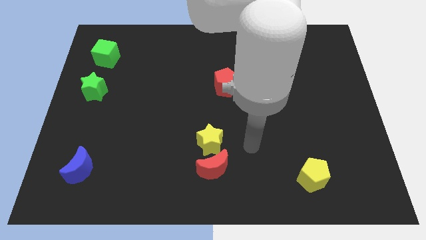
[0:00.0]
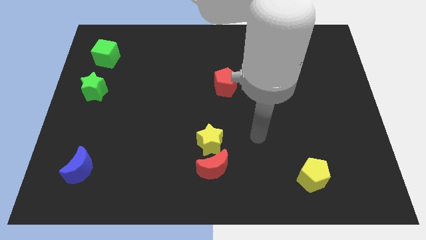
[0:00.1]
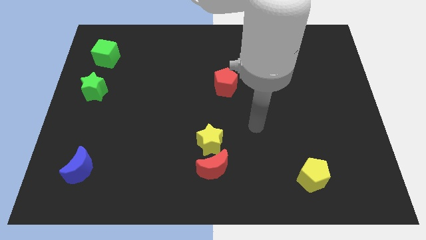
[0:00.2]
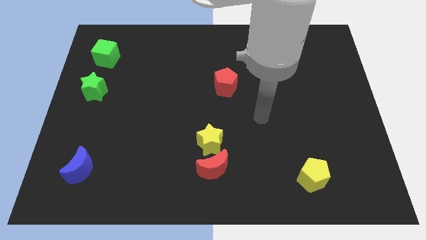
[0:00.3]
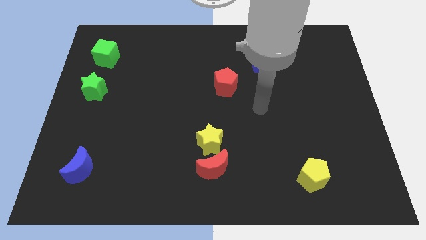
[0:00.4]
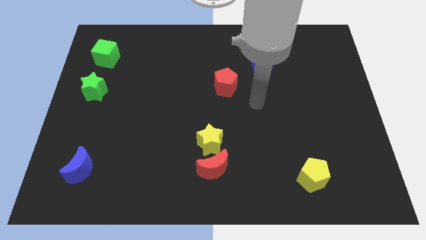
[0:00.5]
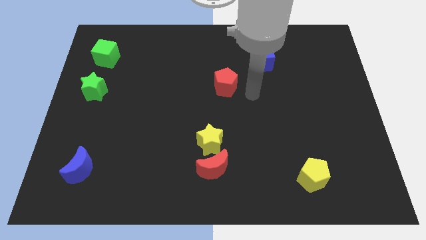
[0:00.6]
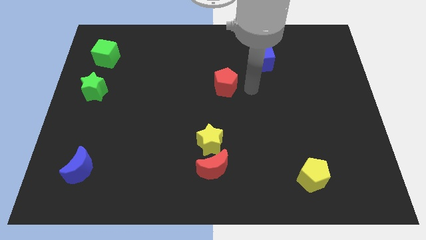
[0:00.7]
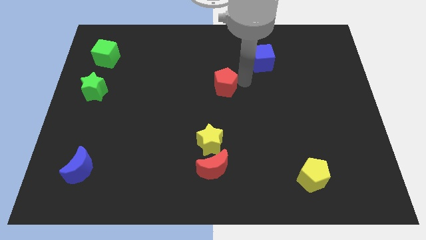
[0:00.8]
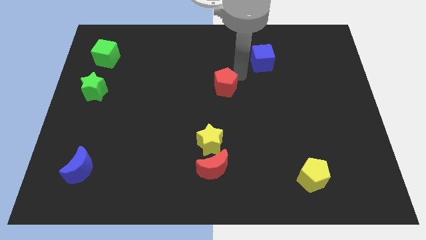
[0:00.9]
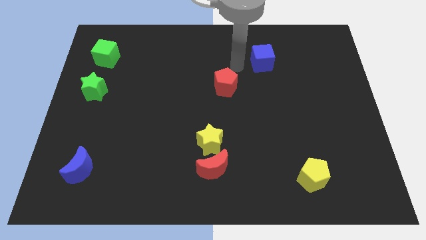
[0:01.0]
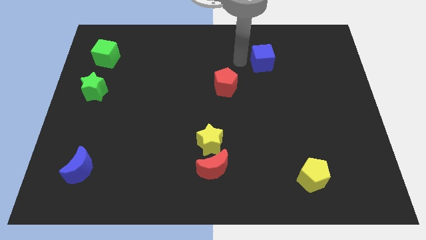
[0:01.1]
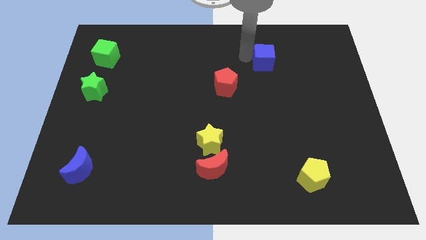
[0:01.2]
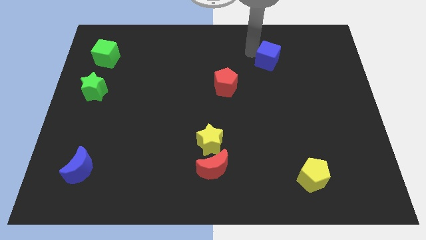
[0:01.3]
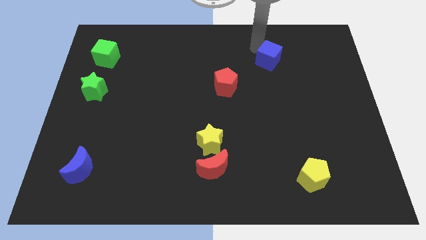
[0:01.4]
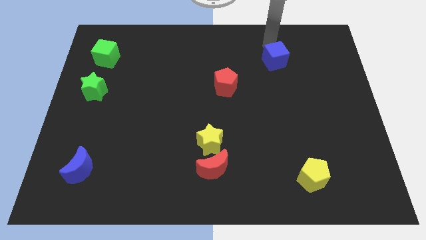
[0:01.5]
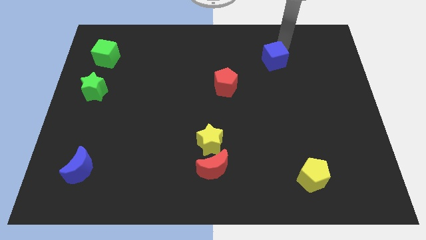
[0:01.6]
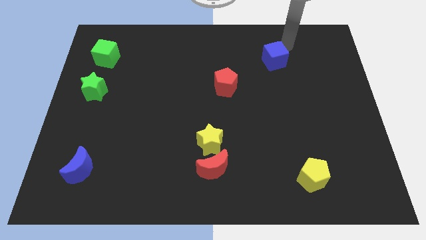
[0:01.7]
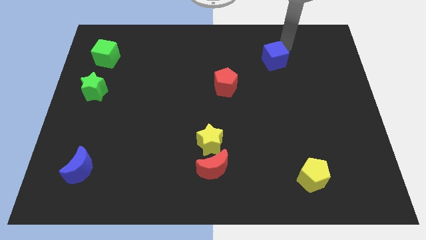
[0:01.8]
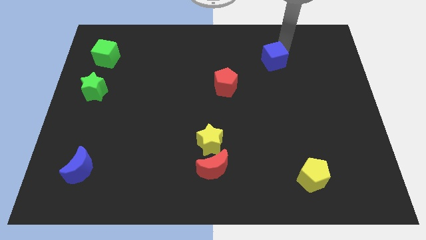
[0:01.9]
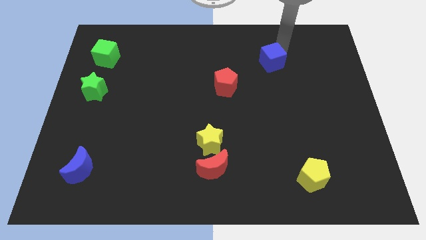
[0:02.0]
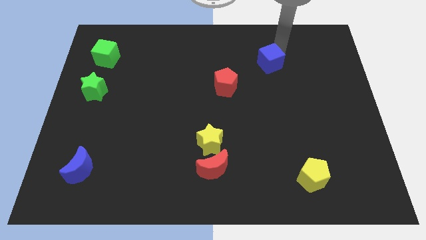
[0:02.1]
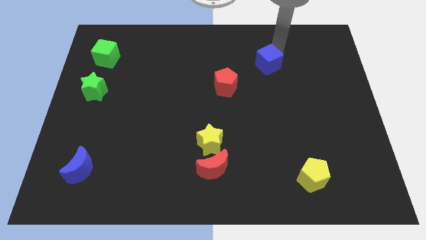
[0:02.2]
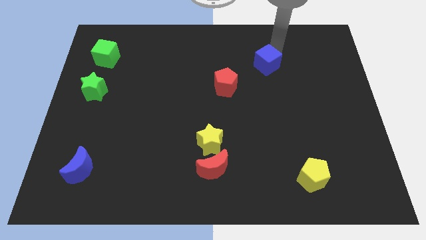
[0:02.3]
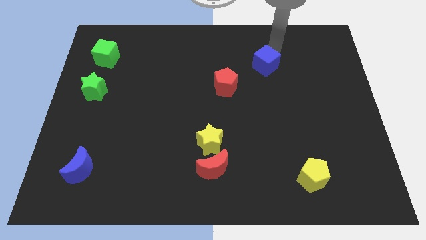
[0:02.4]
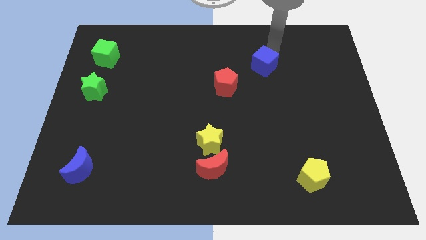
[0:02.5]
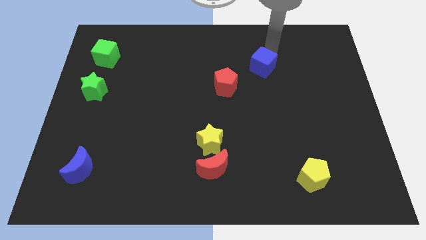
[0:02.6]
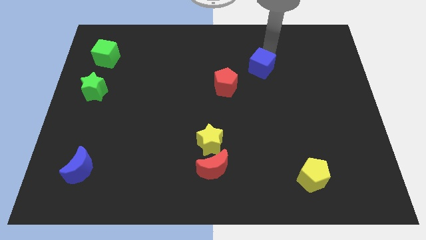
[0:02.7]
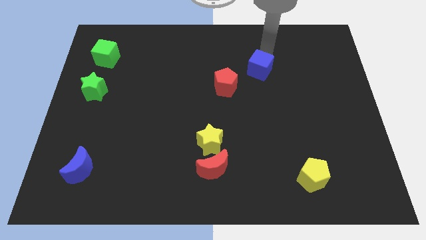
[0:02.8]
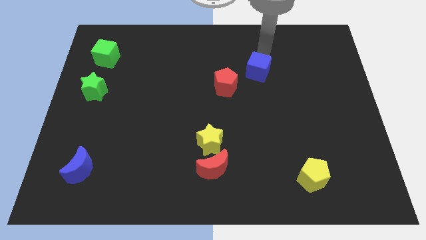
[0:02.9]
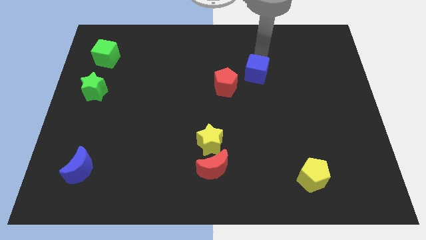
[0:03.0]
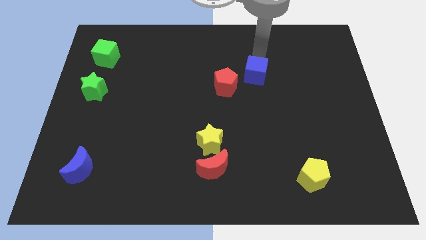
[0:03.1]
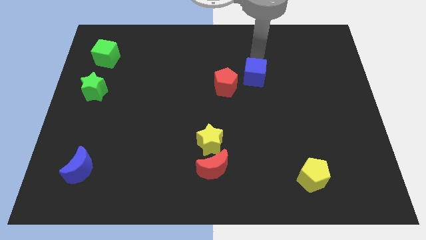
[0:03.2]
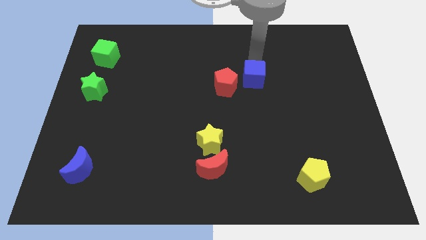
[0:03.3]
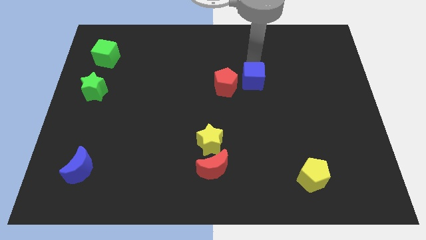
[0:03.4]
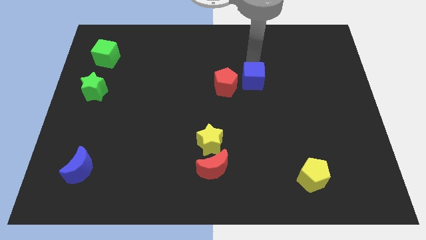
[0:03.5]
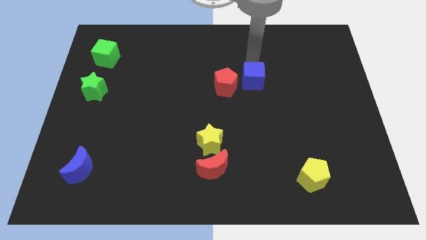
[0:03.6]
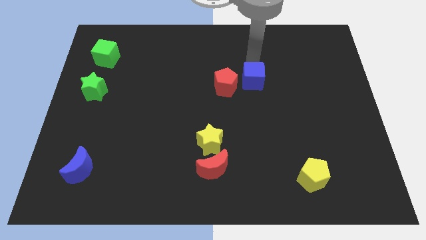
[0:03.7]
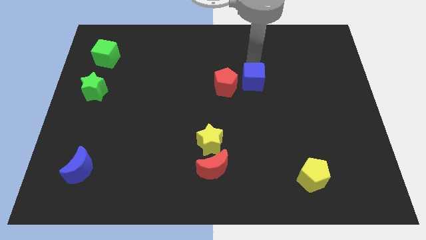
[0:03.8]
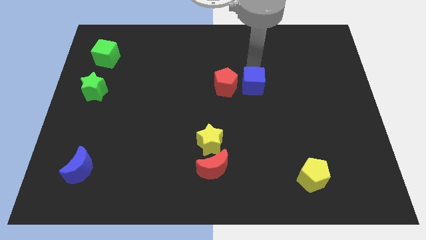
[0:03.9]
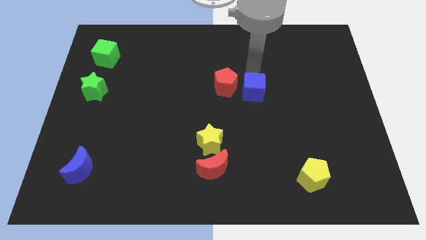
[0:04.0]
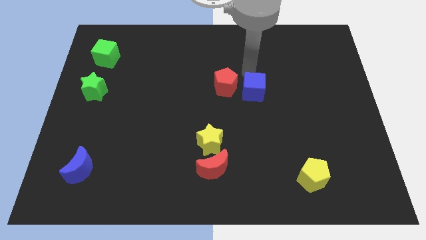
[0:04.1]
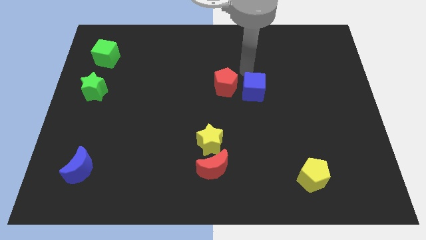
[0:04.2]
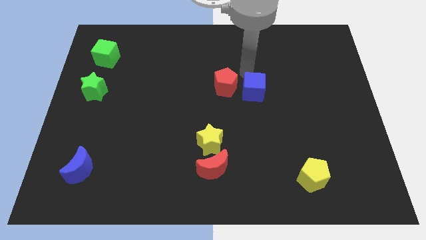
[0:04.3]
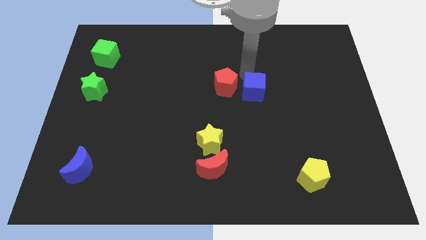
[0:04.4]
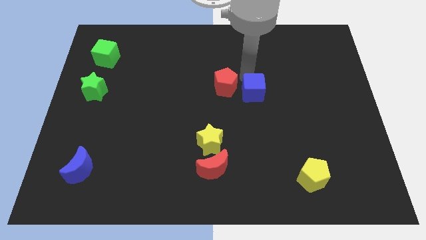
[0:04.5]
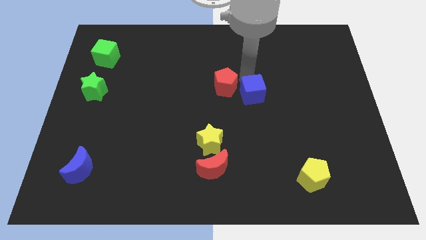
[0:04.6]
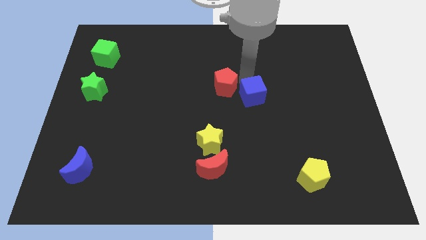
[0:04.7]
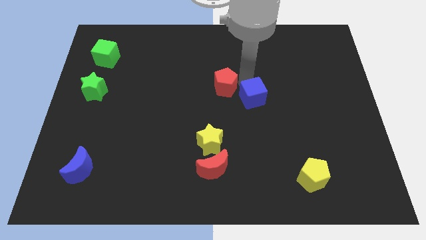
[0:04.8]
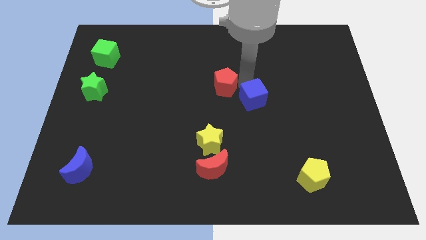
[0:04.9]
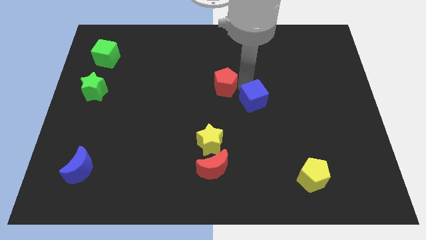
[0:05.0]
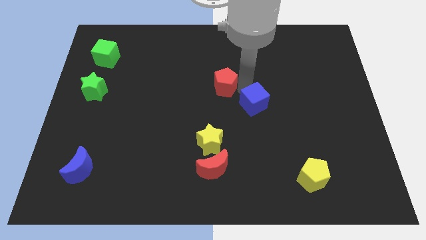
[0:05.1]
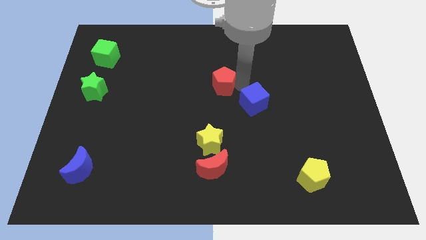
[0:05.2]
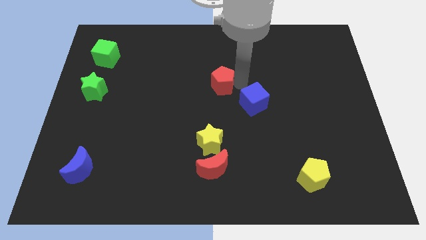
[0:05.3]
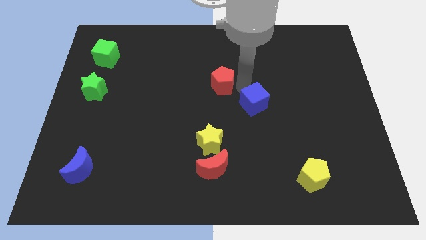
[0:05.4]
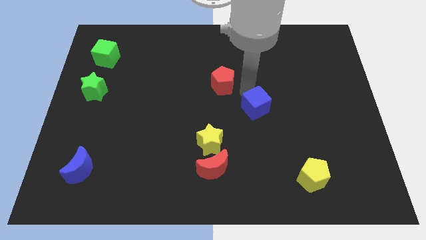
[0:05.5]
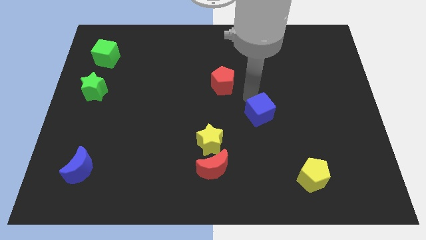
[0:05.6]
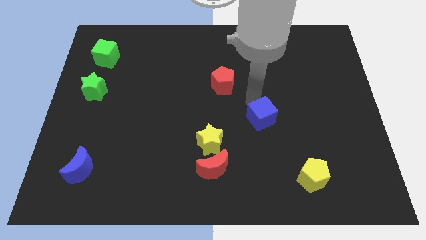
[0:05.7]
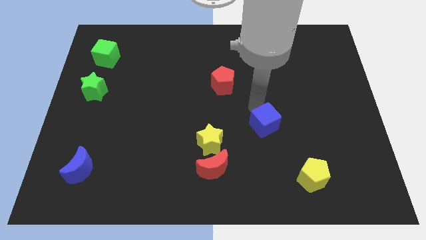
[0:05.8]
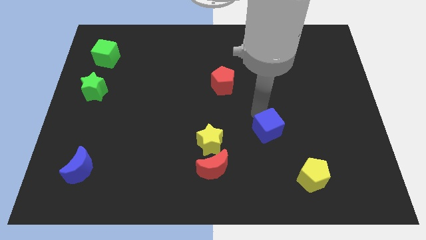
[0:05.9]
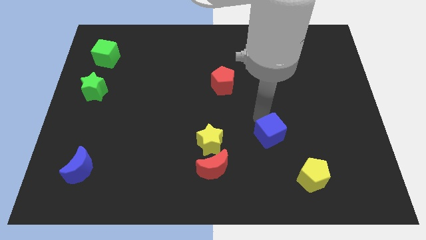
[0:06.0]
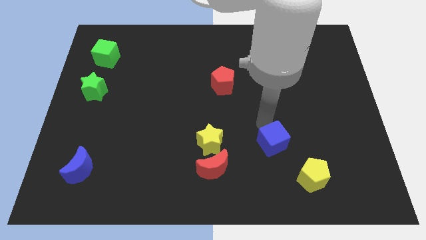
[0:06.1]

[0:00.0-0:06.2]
put the blue cube to the top left of the yellow pentagon

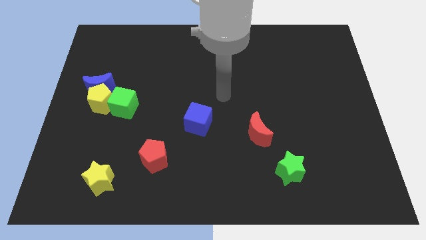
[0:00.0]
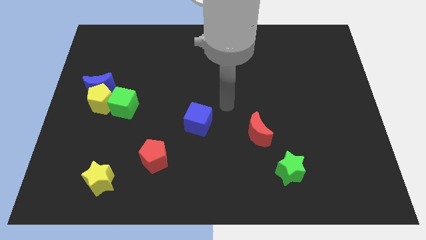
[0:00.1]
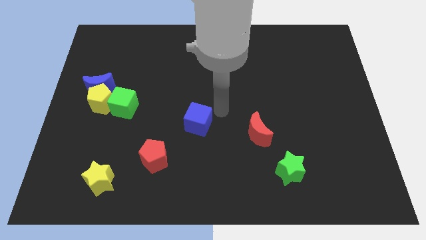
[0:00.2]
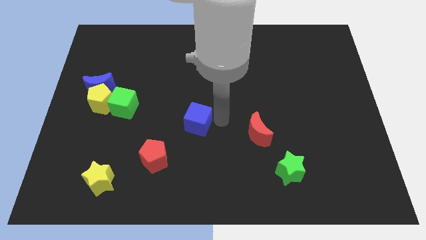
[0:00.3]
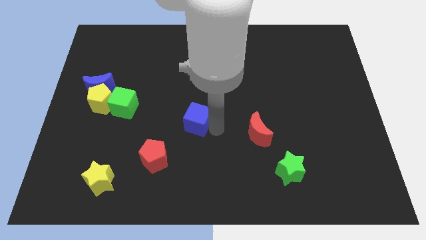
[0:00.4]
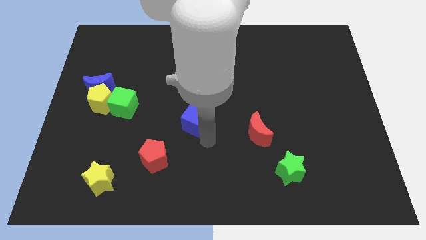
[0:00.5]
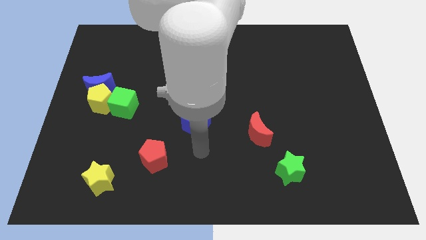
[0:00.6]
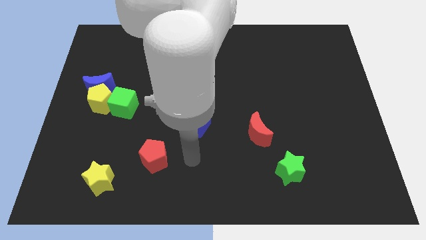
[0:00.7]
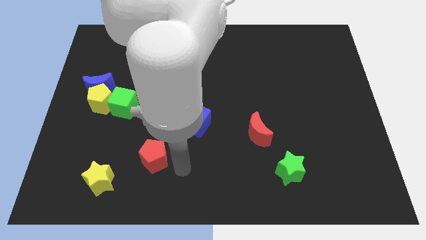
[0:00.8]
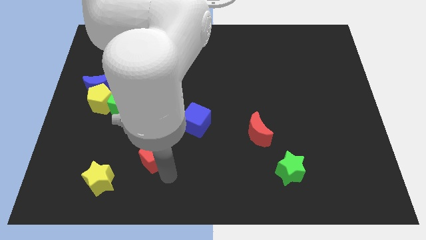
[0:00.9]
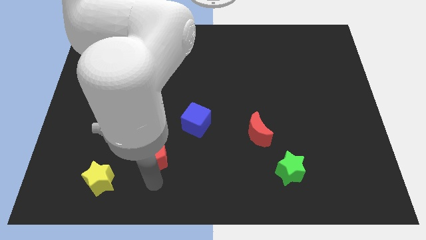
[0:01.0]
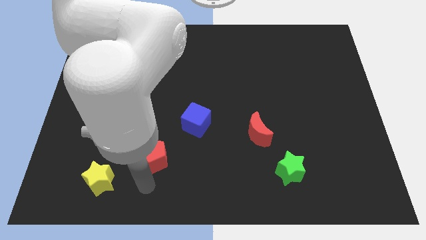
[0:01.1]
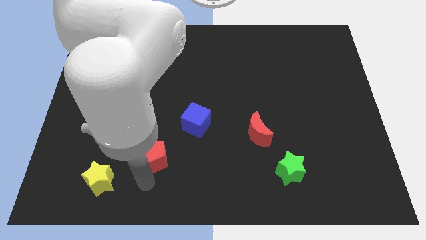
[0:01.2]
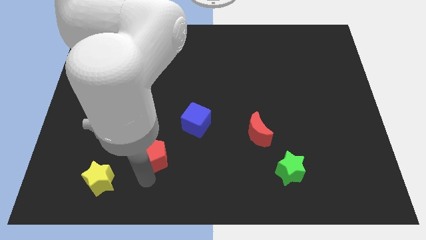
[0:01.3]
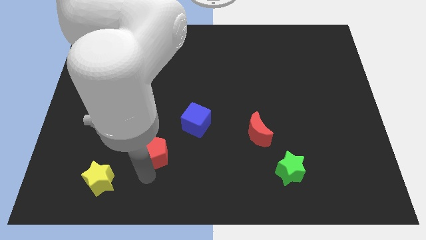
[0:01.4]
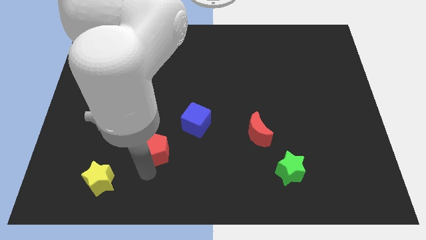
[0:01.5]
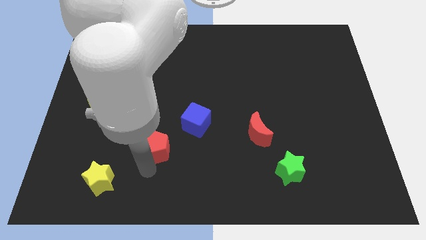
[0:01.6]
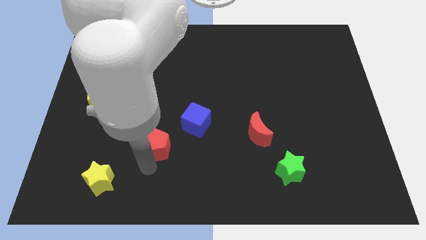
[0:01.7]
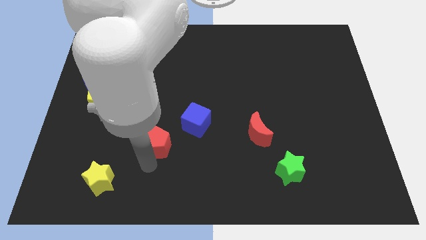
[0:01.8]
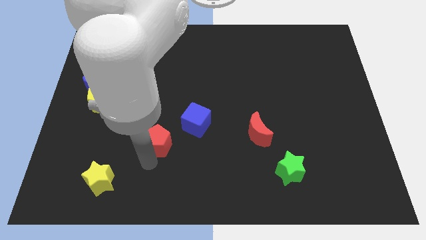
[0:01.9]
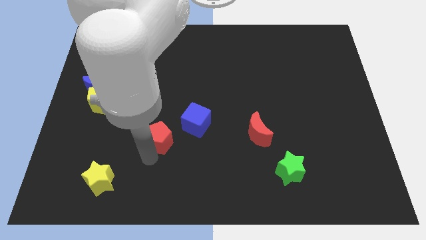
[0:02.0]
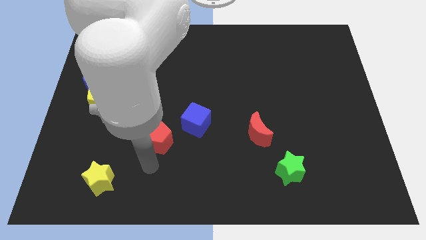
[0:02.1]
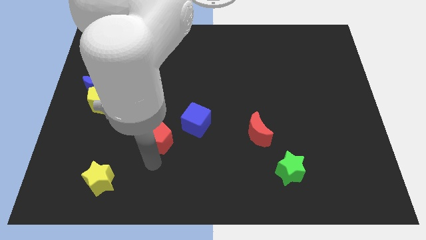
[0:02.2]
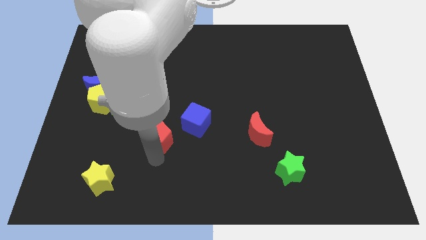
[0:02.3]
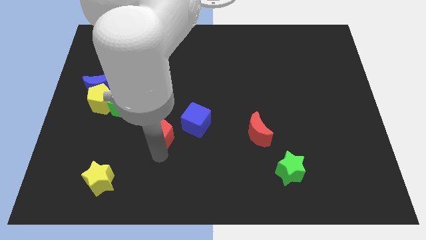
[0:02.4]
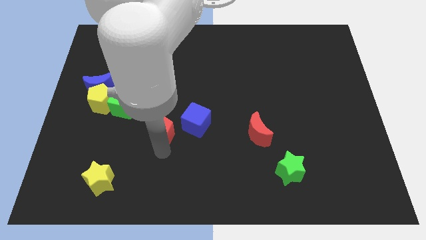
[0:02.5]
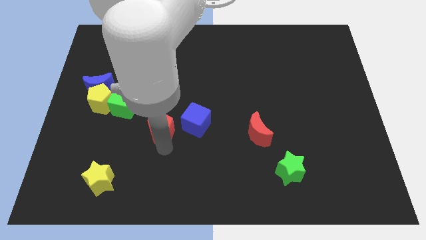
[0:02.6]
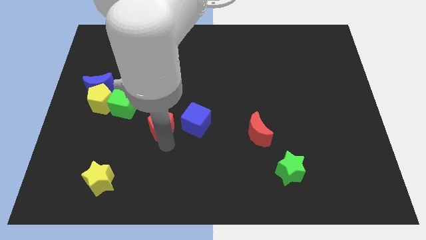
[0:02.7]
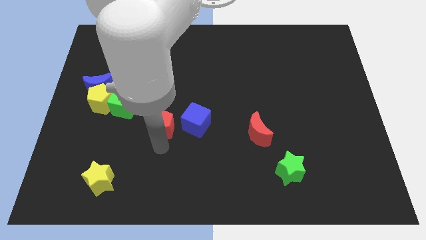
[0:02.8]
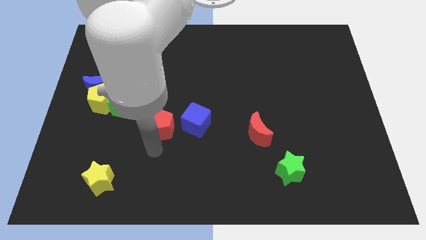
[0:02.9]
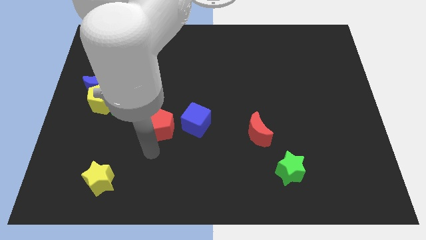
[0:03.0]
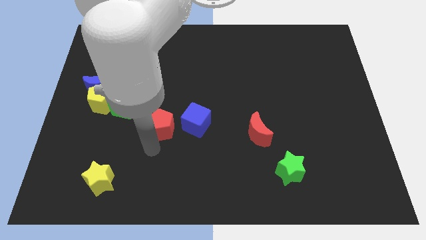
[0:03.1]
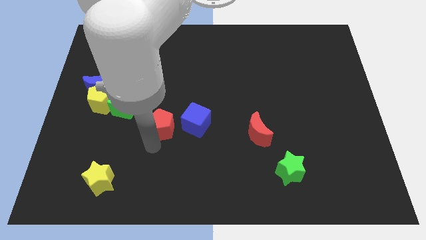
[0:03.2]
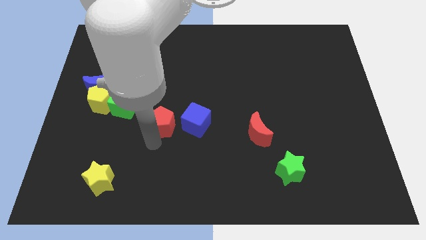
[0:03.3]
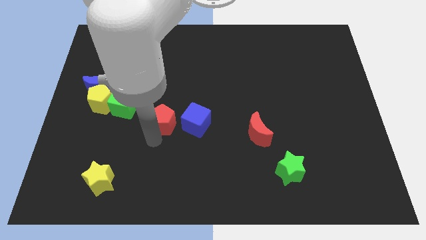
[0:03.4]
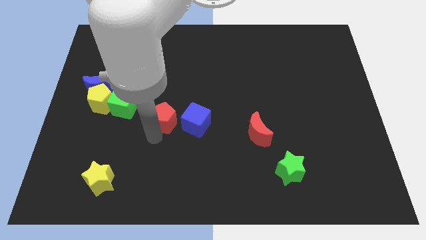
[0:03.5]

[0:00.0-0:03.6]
move the red pentagon to the top left side of the blue cube
